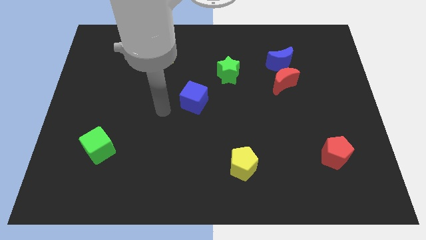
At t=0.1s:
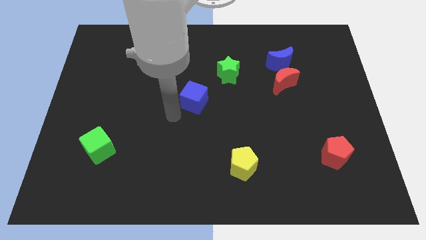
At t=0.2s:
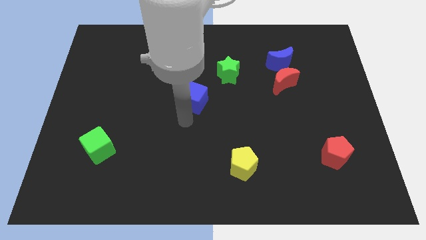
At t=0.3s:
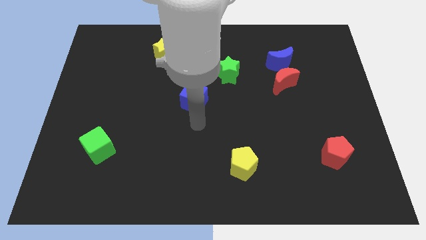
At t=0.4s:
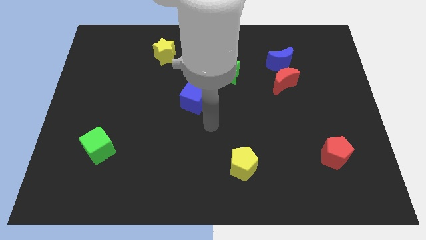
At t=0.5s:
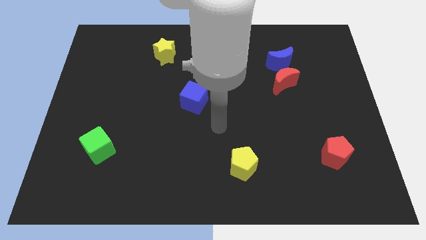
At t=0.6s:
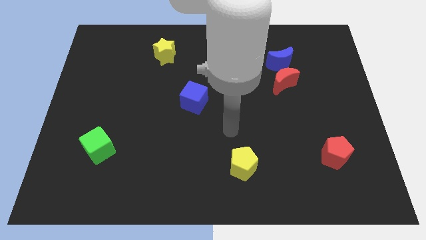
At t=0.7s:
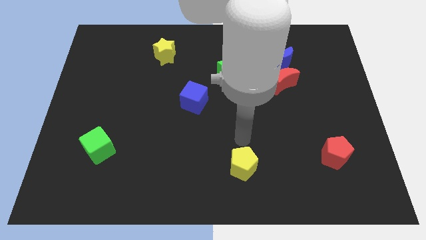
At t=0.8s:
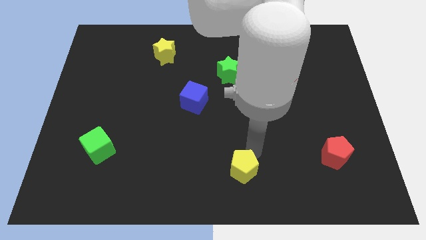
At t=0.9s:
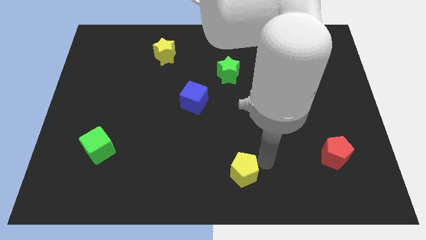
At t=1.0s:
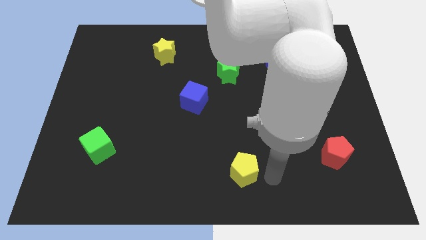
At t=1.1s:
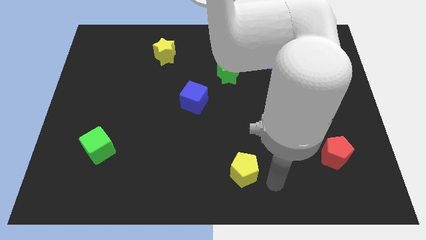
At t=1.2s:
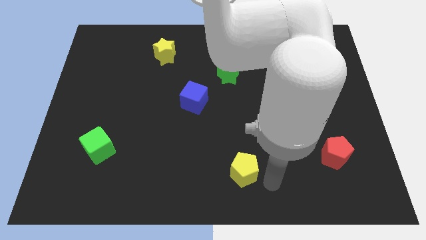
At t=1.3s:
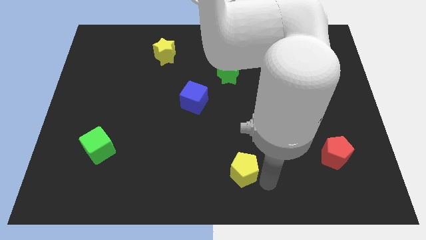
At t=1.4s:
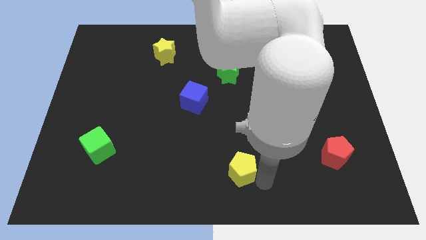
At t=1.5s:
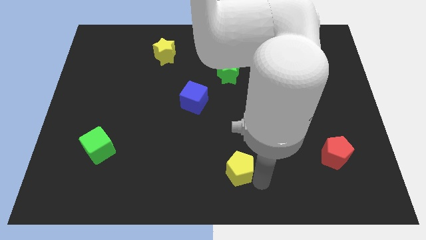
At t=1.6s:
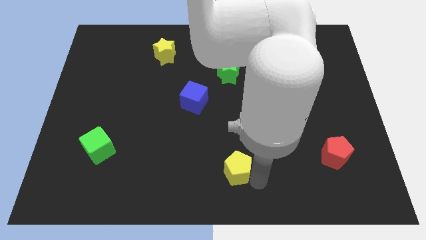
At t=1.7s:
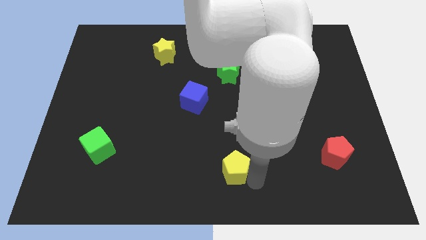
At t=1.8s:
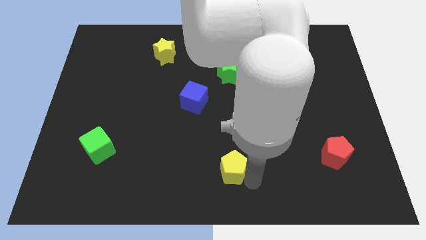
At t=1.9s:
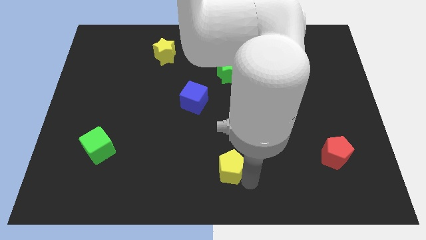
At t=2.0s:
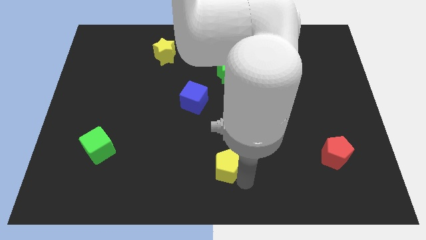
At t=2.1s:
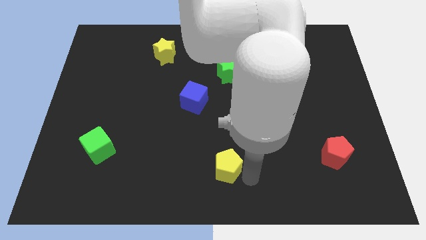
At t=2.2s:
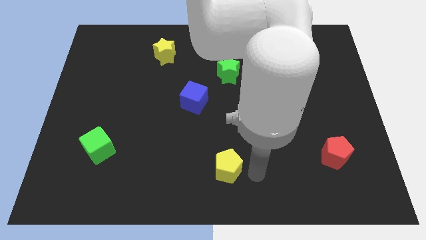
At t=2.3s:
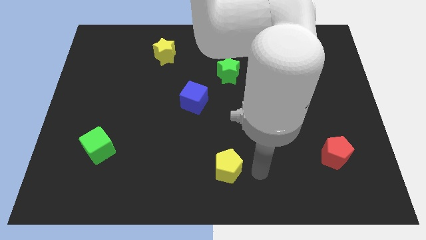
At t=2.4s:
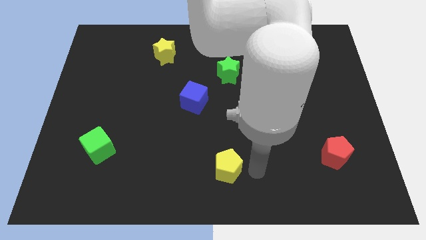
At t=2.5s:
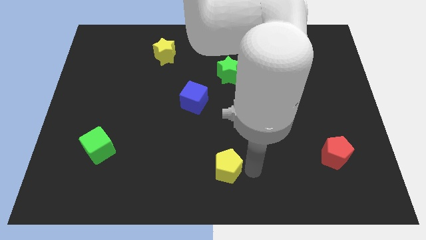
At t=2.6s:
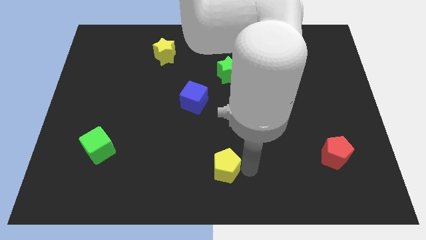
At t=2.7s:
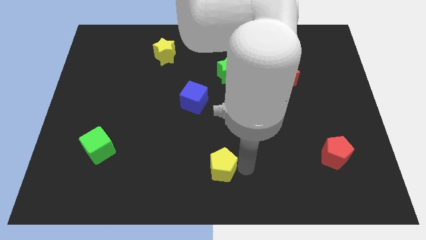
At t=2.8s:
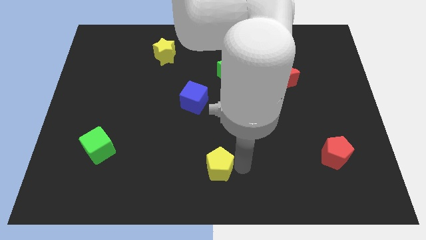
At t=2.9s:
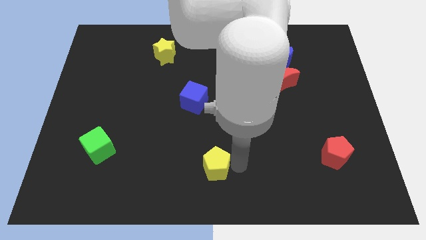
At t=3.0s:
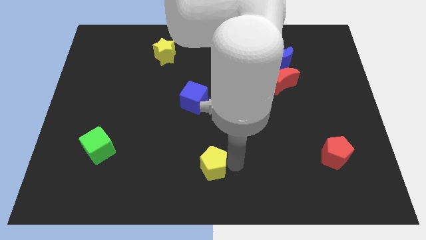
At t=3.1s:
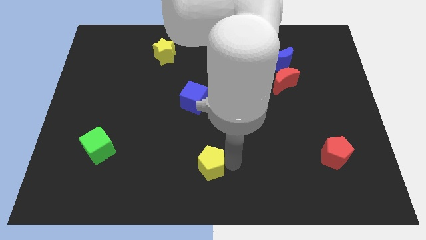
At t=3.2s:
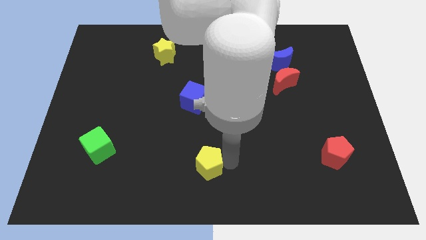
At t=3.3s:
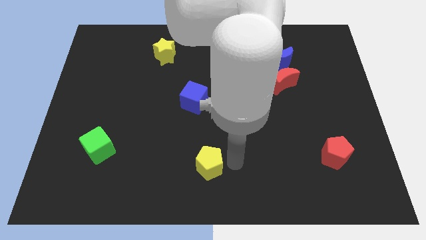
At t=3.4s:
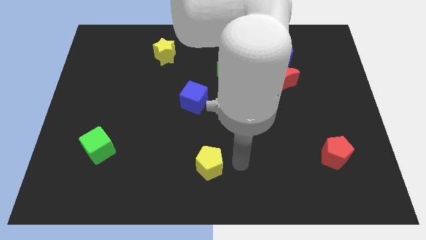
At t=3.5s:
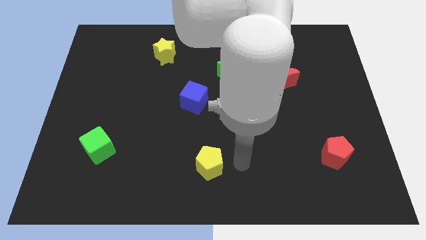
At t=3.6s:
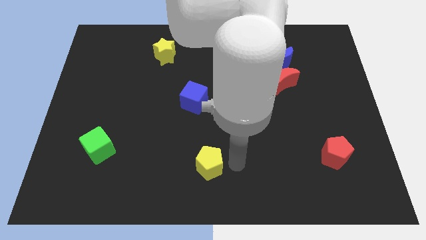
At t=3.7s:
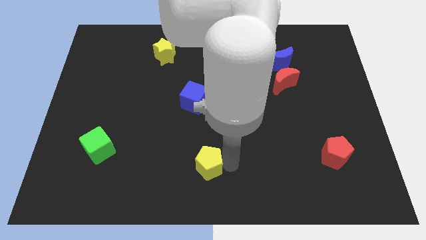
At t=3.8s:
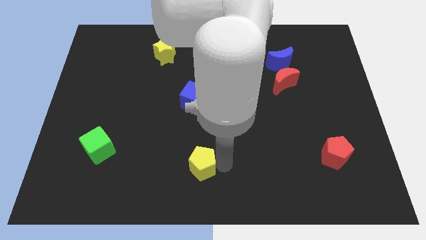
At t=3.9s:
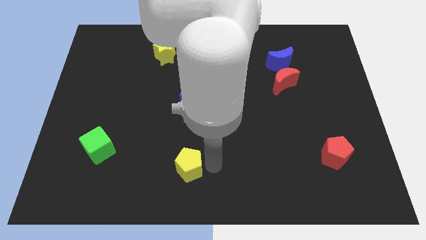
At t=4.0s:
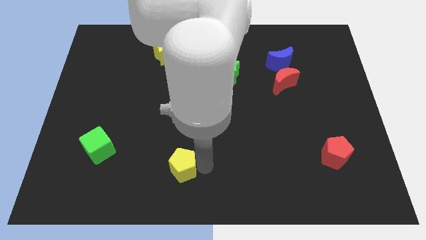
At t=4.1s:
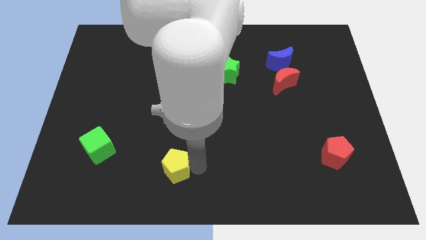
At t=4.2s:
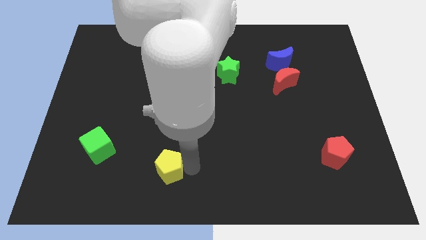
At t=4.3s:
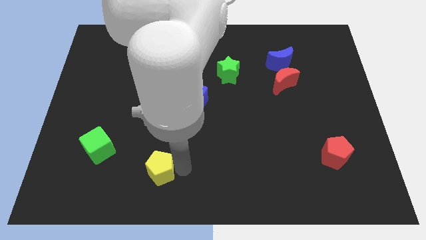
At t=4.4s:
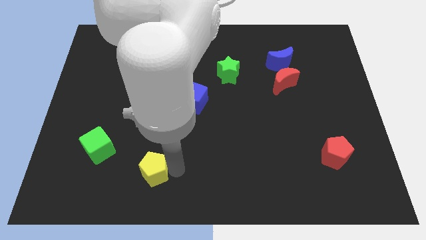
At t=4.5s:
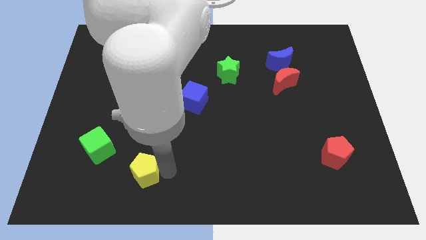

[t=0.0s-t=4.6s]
move the yellow pentagon left

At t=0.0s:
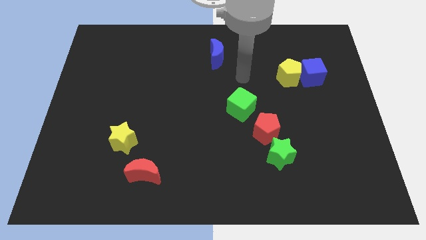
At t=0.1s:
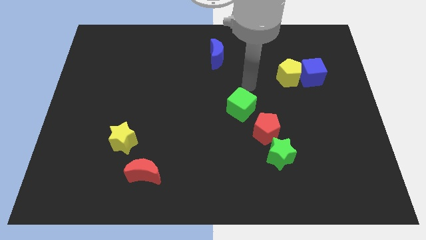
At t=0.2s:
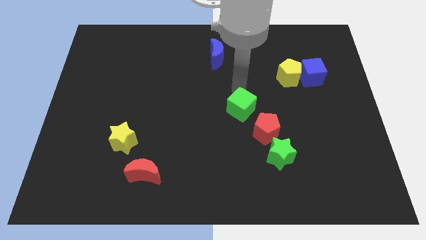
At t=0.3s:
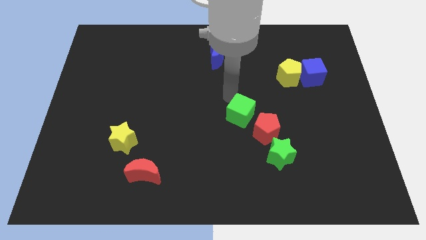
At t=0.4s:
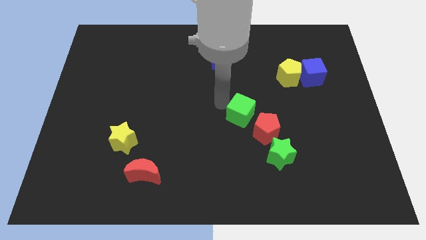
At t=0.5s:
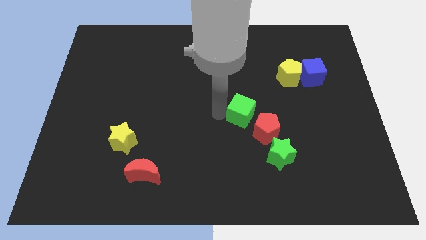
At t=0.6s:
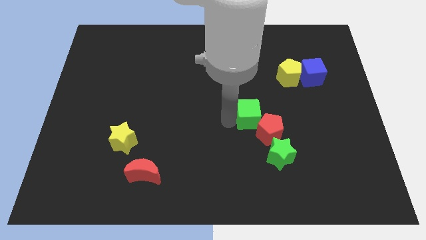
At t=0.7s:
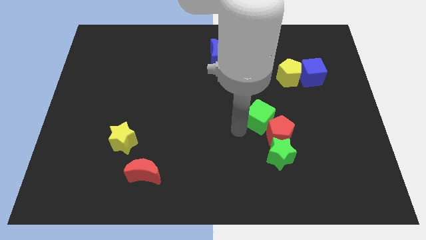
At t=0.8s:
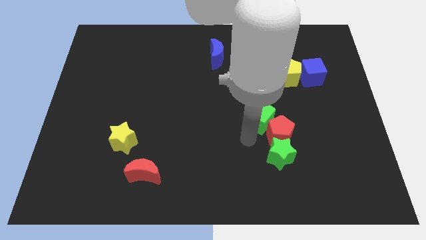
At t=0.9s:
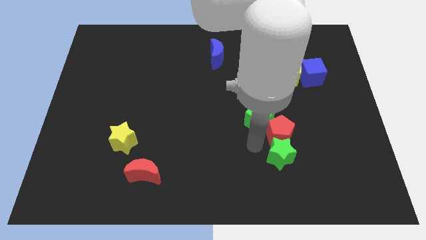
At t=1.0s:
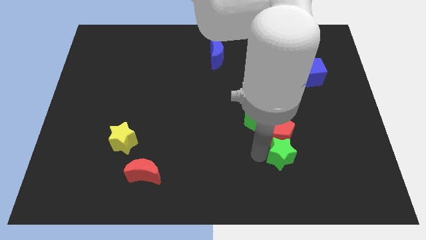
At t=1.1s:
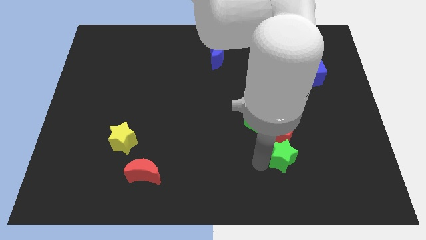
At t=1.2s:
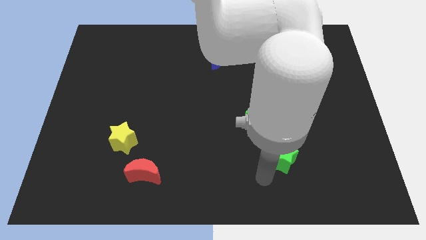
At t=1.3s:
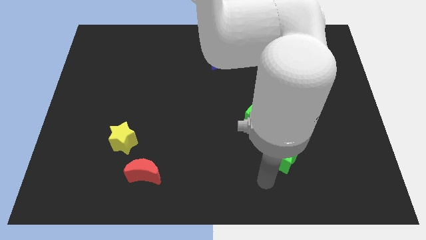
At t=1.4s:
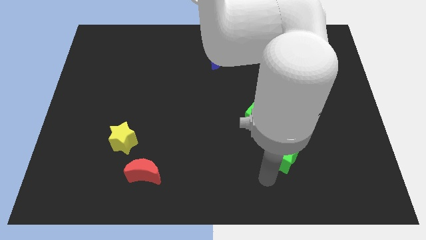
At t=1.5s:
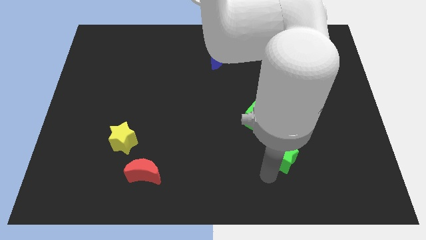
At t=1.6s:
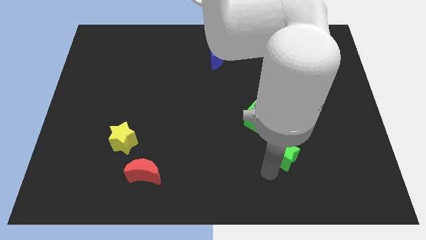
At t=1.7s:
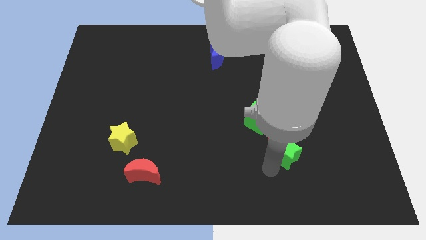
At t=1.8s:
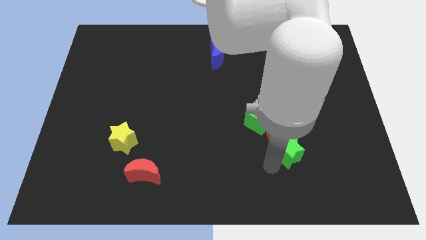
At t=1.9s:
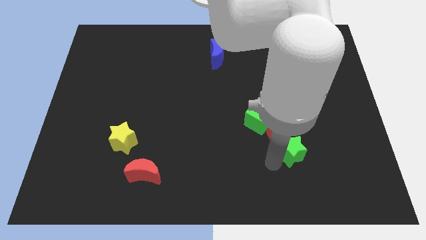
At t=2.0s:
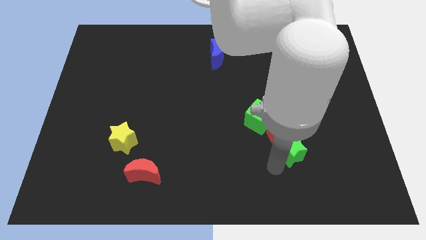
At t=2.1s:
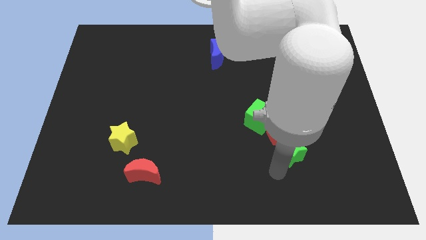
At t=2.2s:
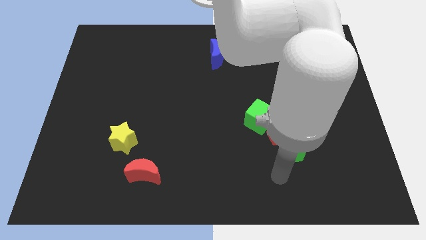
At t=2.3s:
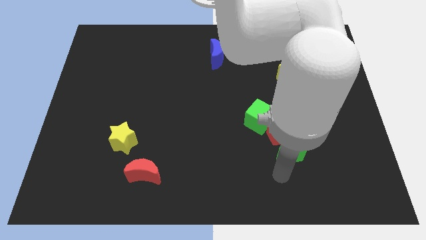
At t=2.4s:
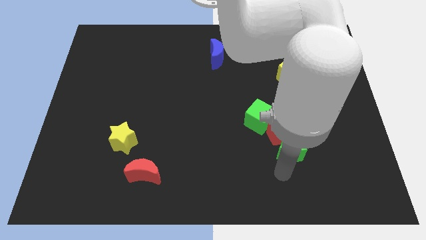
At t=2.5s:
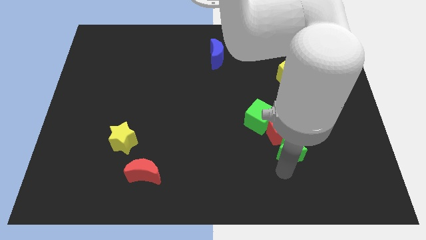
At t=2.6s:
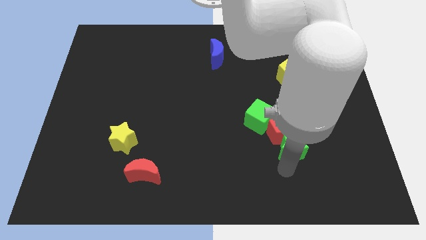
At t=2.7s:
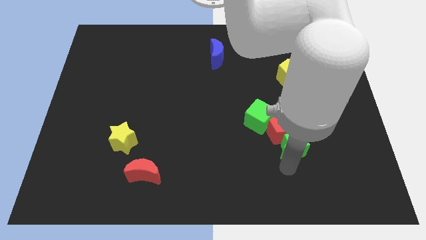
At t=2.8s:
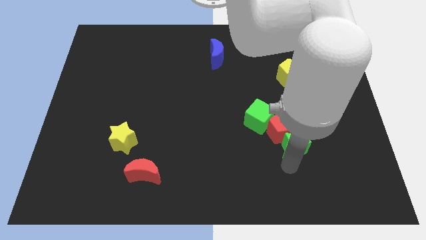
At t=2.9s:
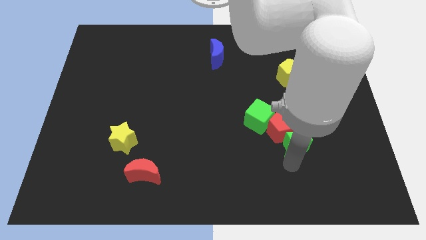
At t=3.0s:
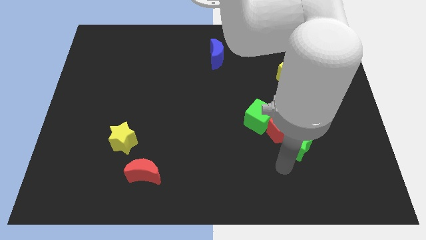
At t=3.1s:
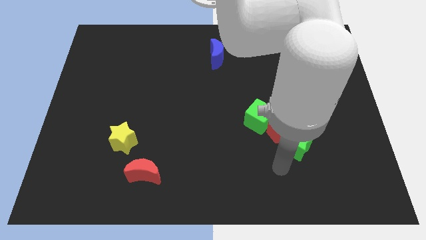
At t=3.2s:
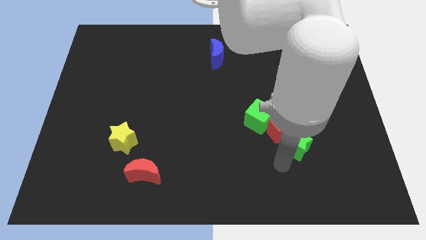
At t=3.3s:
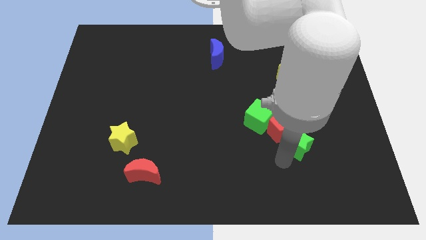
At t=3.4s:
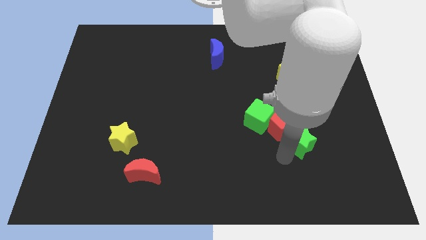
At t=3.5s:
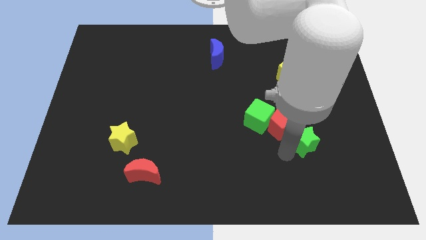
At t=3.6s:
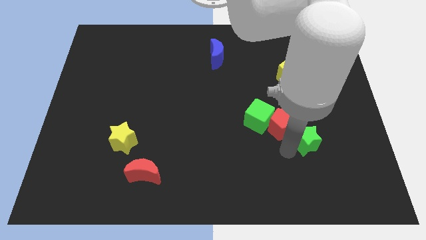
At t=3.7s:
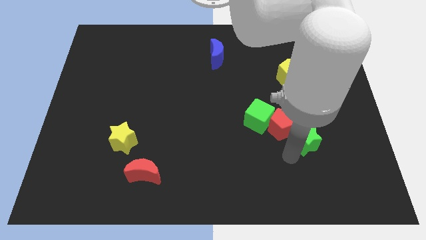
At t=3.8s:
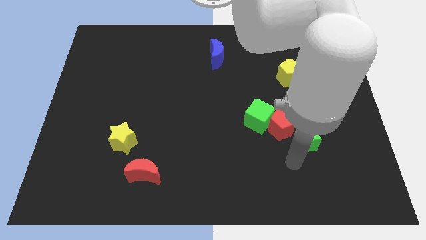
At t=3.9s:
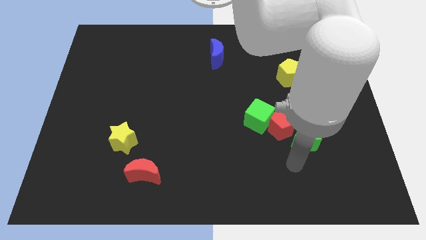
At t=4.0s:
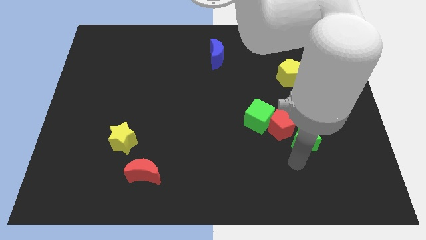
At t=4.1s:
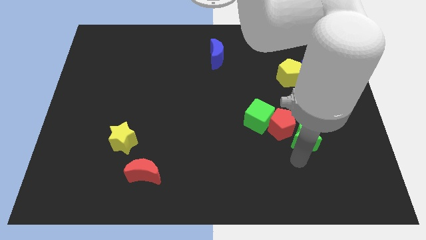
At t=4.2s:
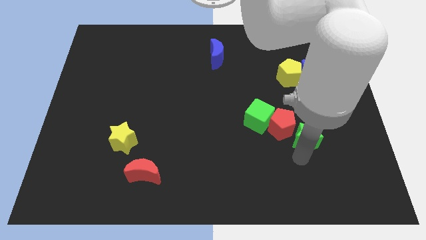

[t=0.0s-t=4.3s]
slightly push the green star up and then right
